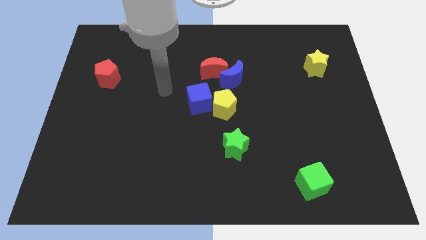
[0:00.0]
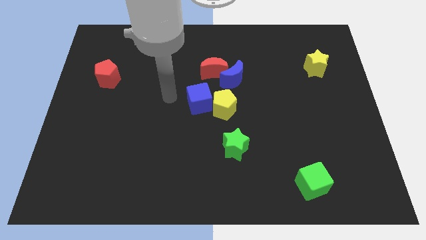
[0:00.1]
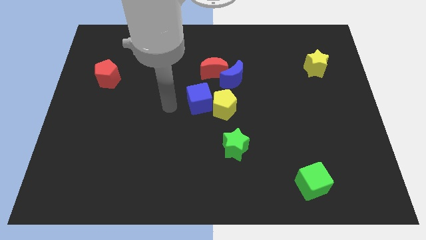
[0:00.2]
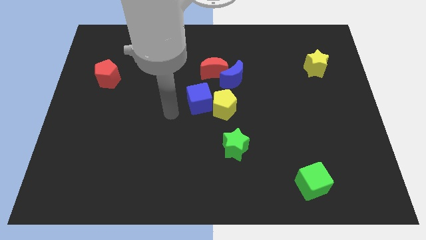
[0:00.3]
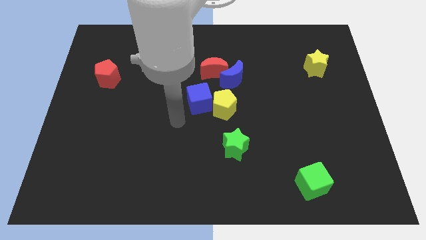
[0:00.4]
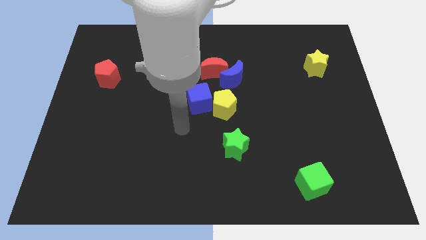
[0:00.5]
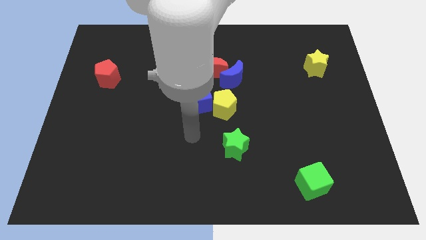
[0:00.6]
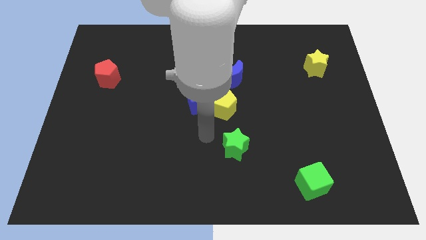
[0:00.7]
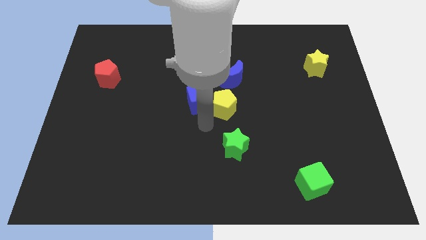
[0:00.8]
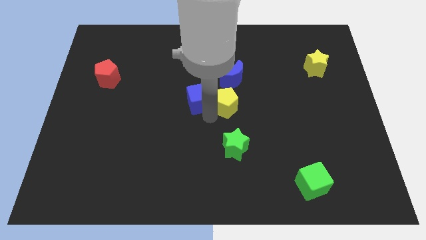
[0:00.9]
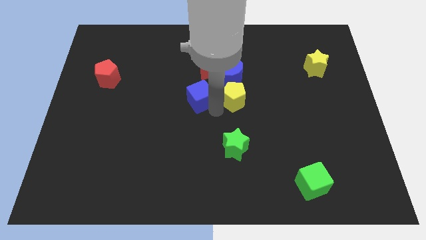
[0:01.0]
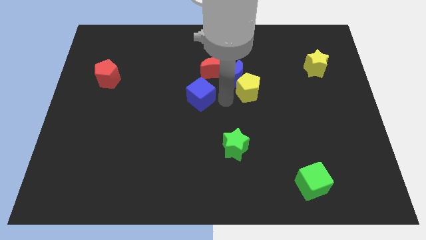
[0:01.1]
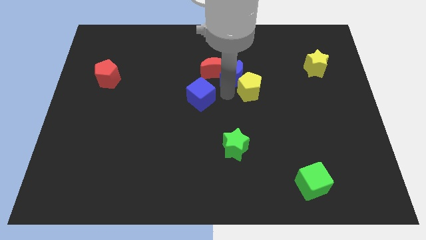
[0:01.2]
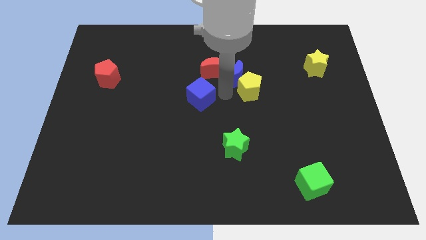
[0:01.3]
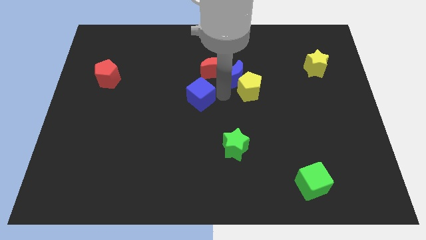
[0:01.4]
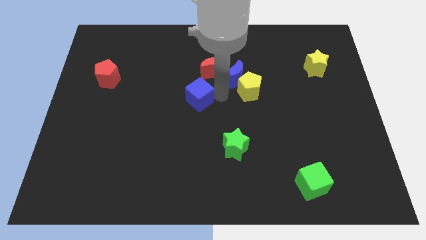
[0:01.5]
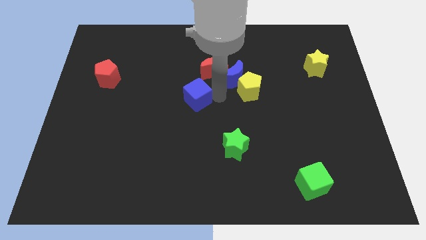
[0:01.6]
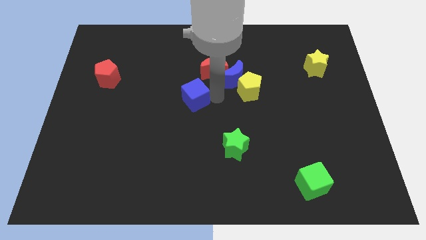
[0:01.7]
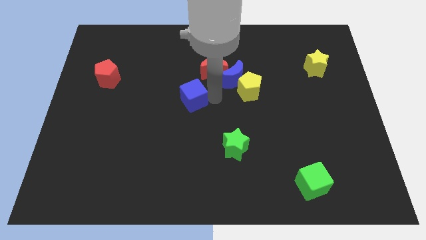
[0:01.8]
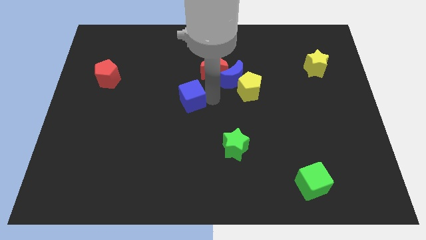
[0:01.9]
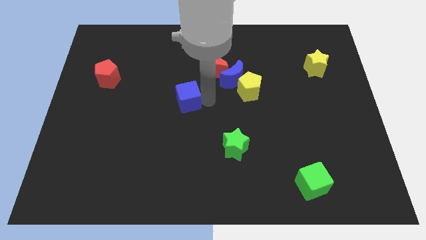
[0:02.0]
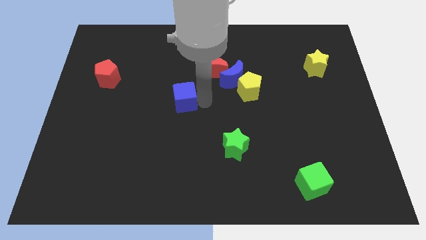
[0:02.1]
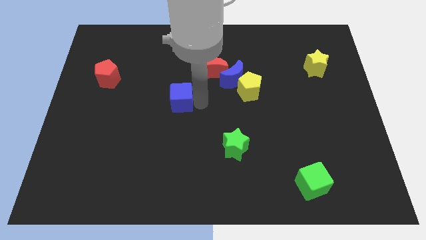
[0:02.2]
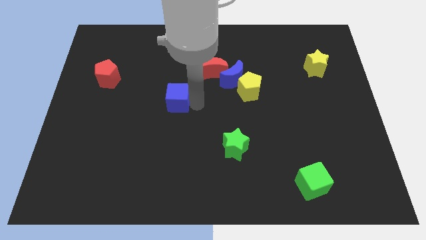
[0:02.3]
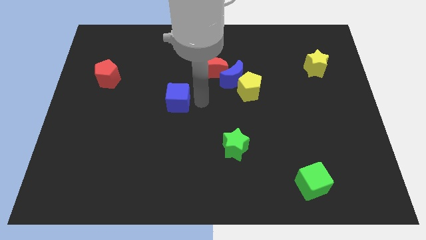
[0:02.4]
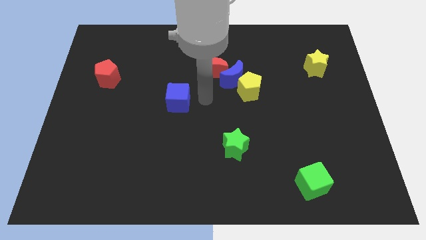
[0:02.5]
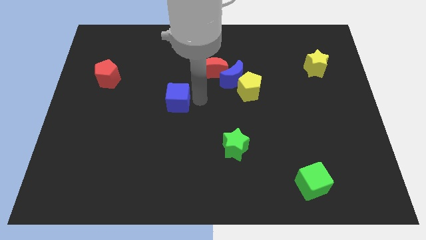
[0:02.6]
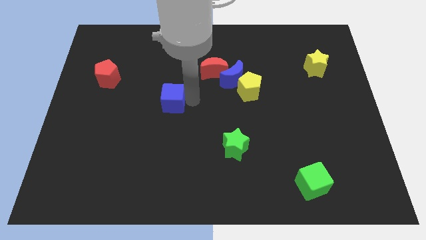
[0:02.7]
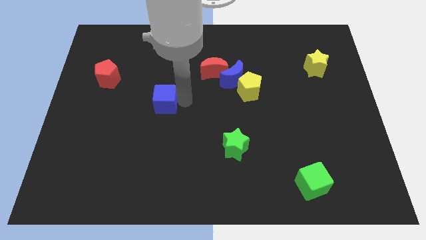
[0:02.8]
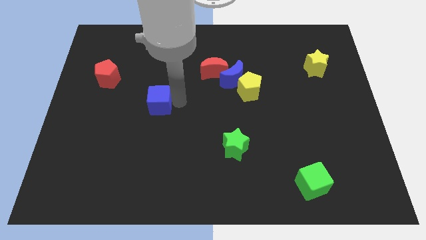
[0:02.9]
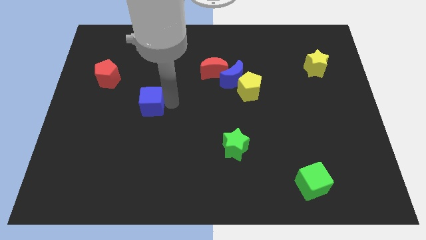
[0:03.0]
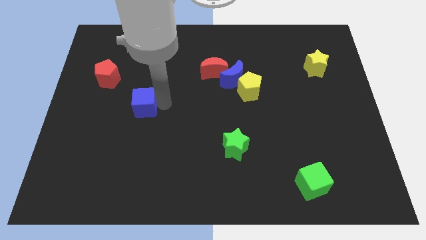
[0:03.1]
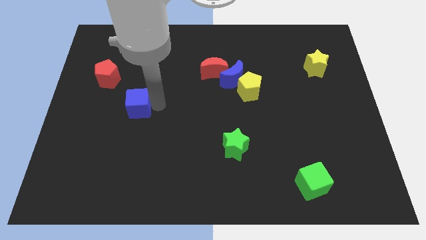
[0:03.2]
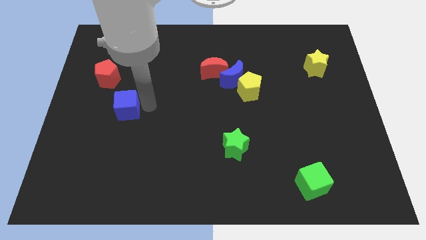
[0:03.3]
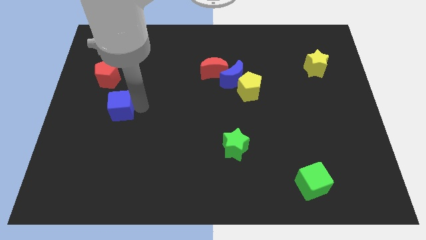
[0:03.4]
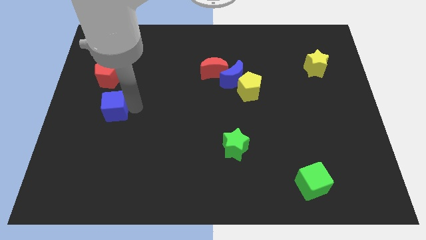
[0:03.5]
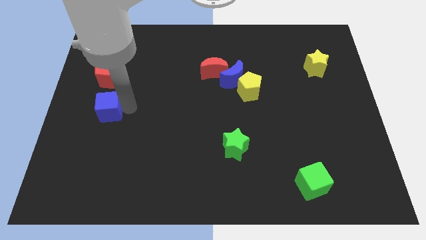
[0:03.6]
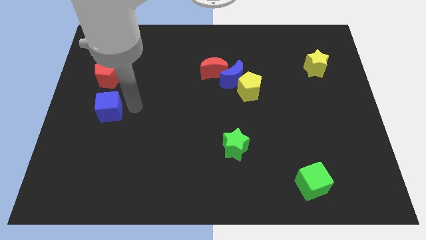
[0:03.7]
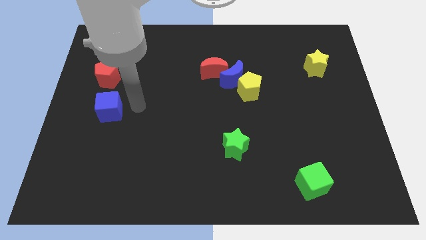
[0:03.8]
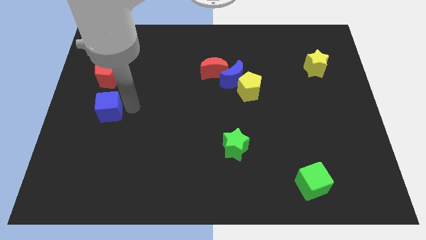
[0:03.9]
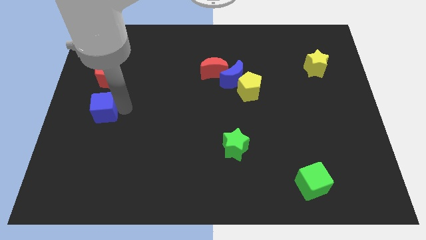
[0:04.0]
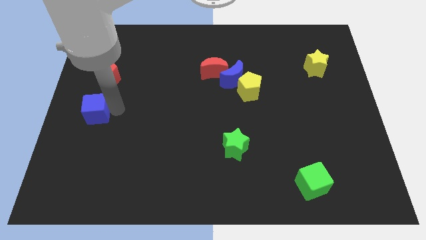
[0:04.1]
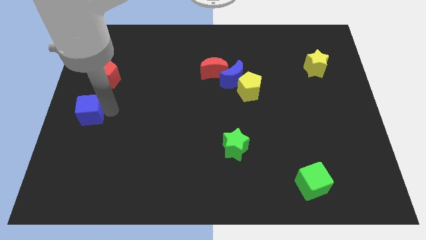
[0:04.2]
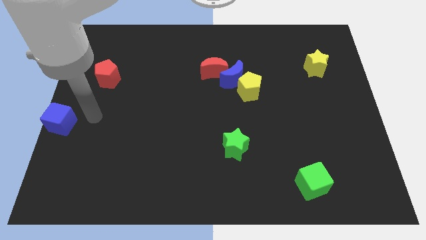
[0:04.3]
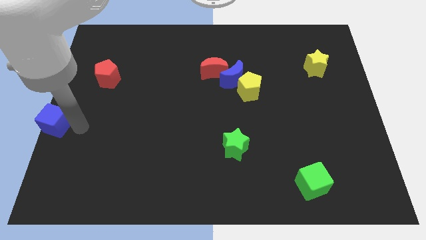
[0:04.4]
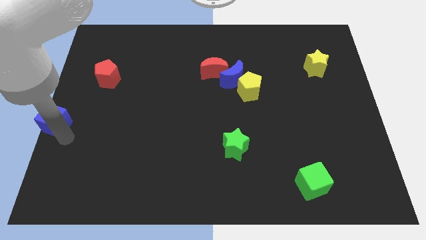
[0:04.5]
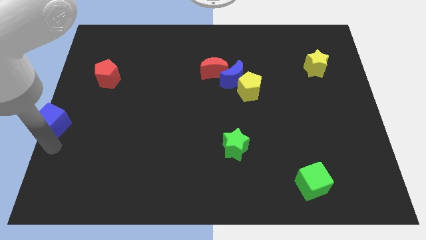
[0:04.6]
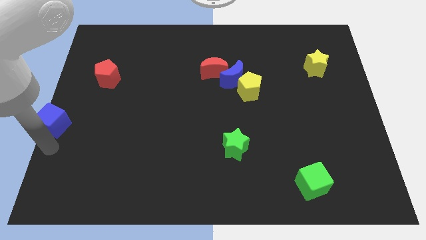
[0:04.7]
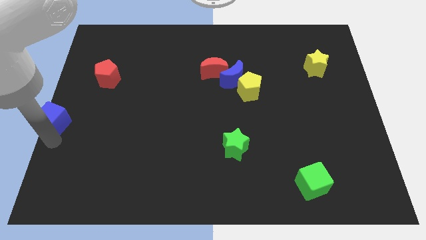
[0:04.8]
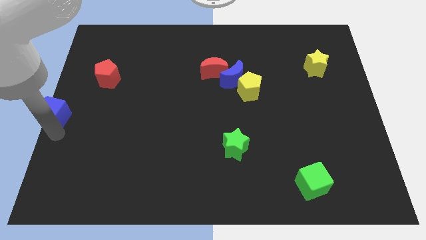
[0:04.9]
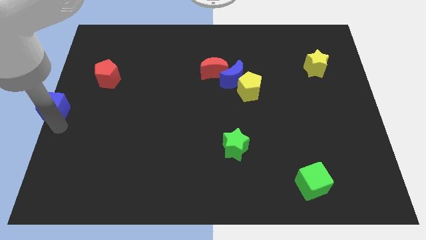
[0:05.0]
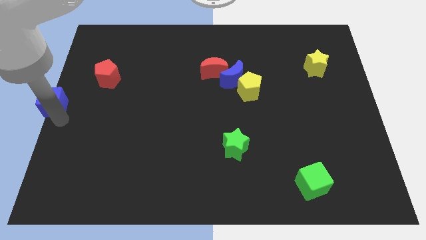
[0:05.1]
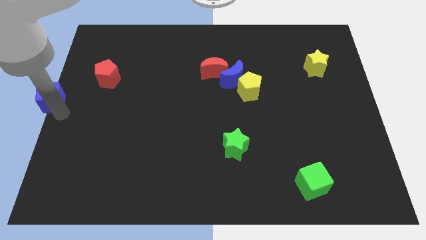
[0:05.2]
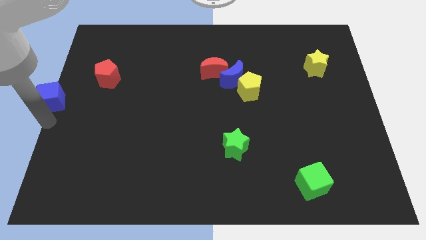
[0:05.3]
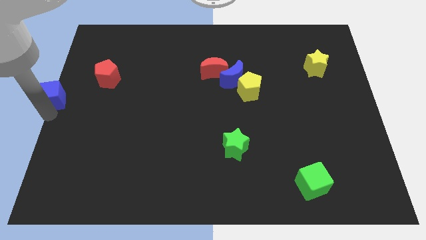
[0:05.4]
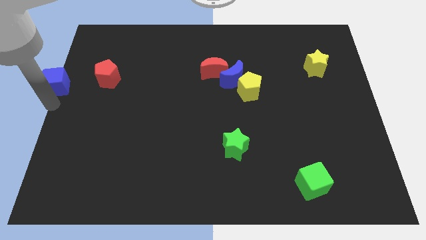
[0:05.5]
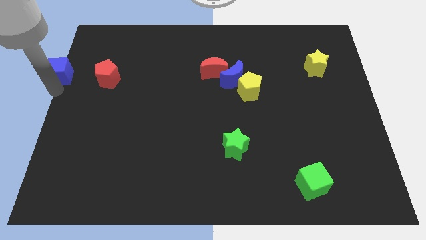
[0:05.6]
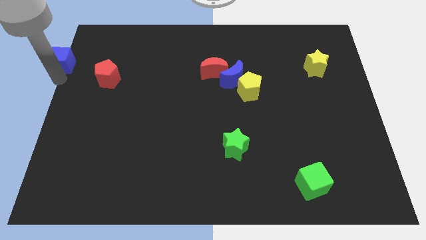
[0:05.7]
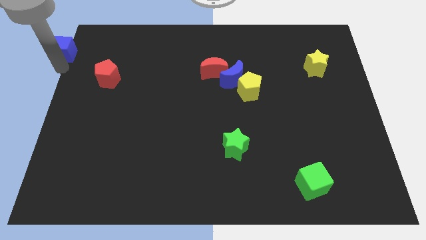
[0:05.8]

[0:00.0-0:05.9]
slide the blue cube to the top left

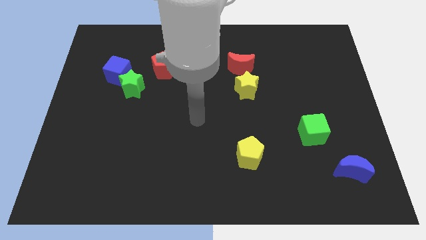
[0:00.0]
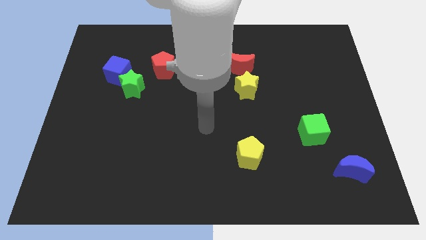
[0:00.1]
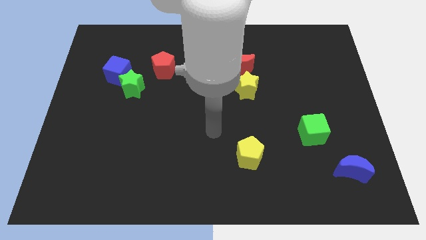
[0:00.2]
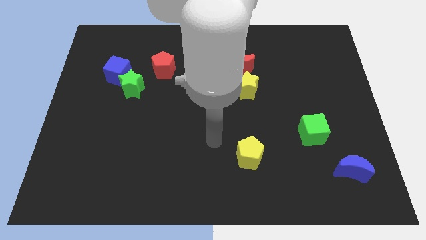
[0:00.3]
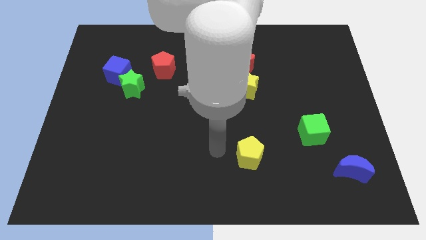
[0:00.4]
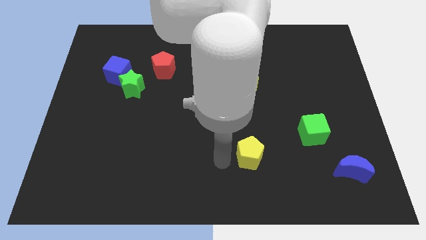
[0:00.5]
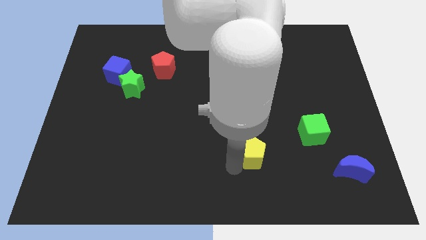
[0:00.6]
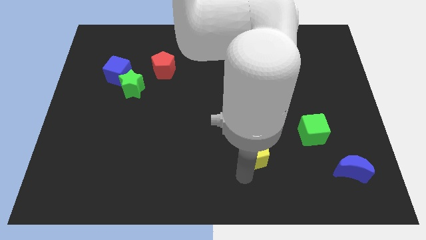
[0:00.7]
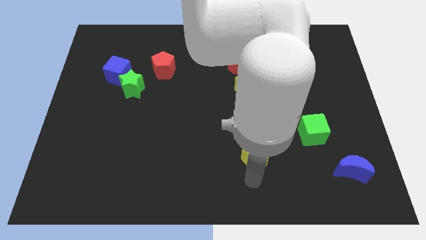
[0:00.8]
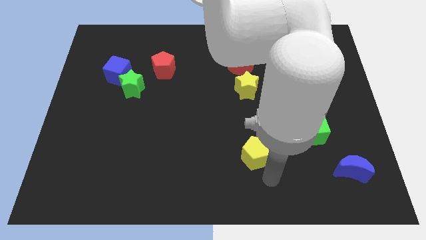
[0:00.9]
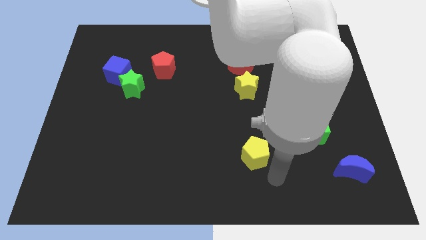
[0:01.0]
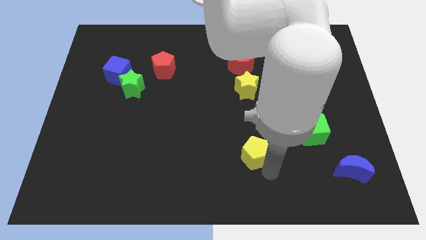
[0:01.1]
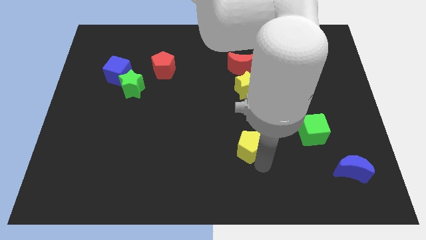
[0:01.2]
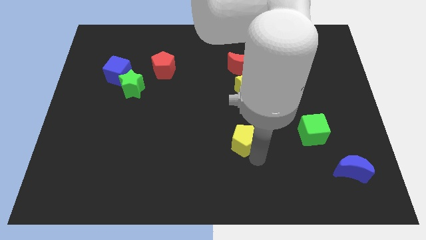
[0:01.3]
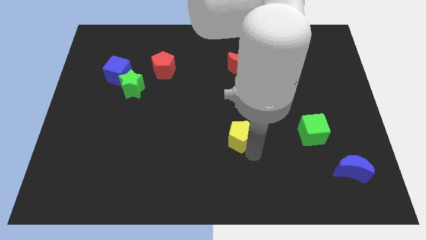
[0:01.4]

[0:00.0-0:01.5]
push the yellow pentagon to the center of the board

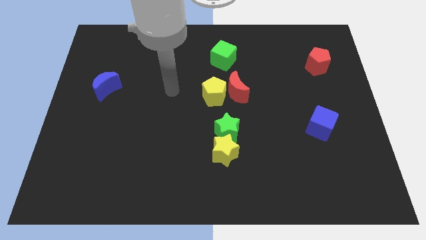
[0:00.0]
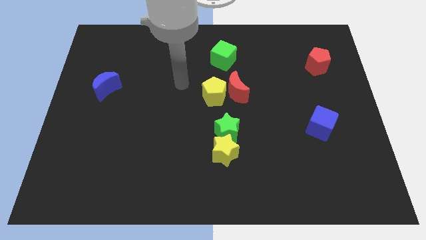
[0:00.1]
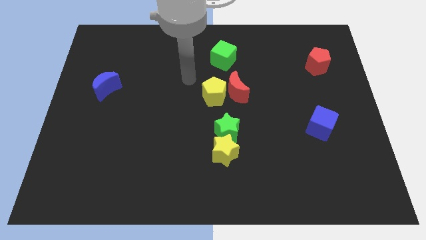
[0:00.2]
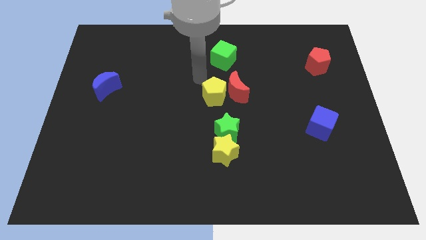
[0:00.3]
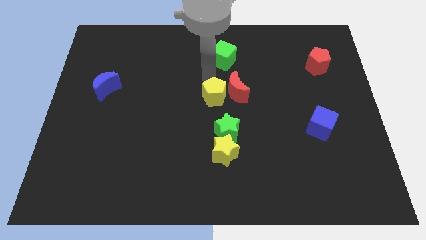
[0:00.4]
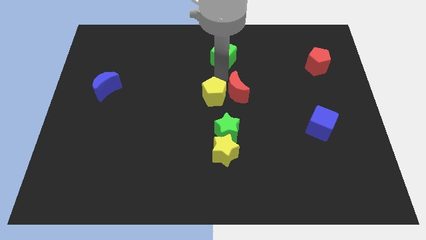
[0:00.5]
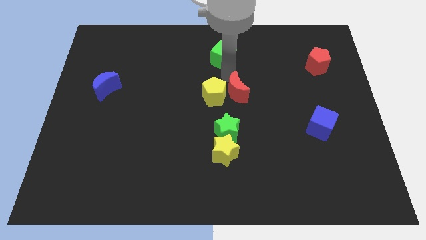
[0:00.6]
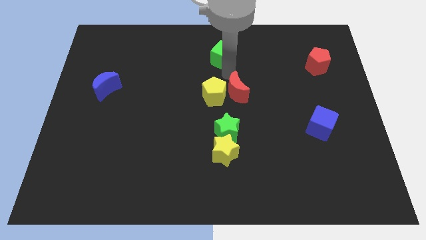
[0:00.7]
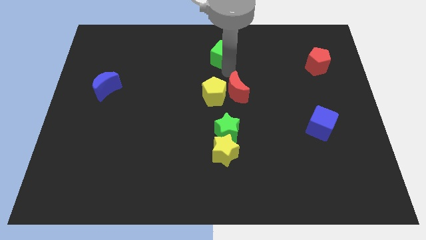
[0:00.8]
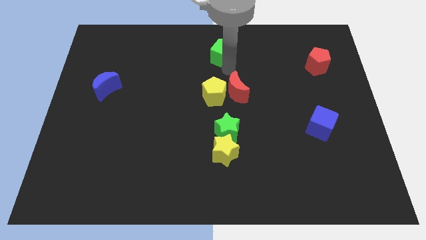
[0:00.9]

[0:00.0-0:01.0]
move the green cube to the top
